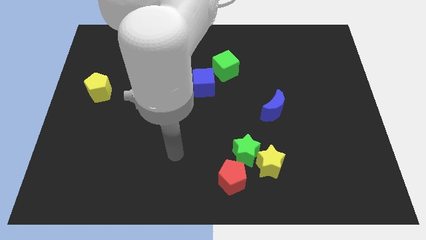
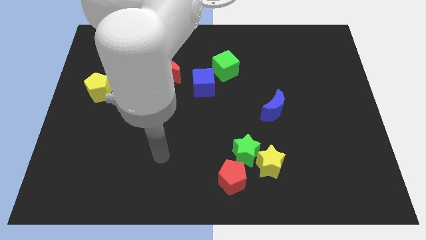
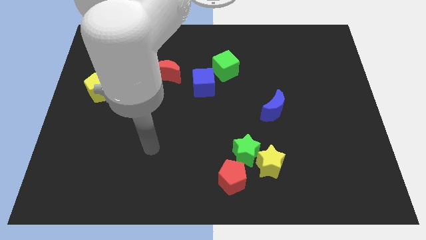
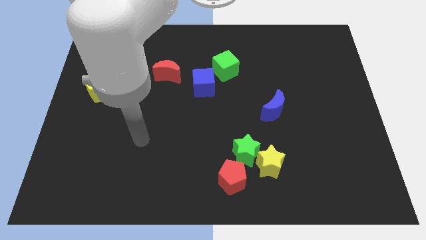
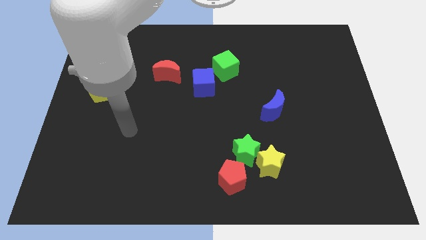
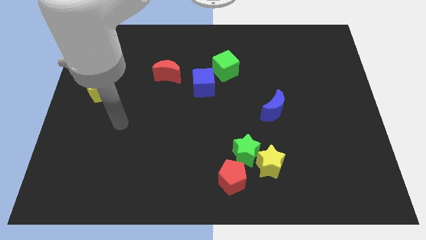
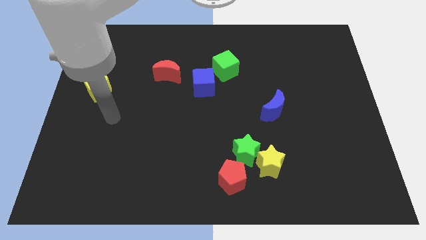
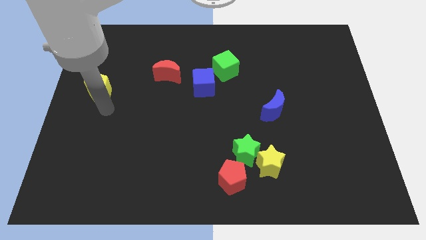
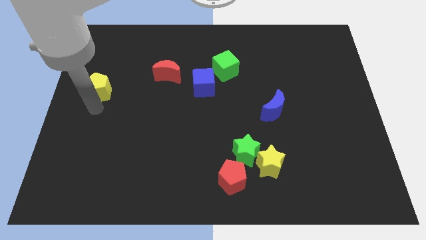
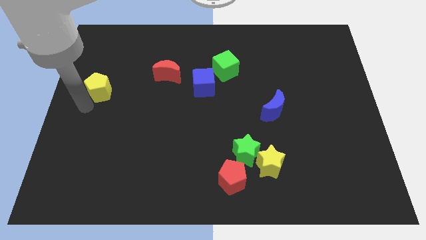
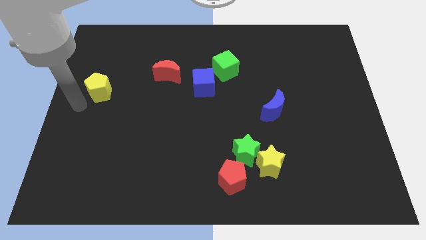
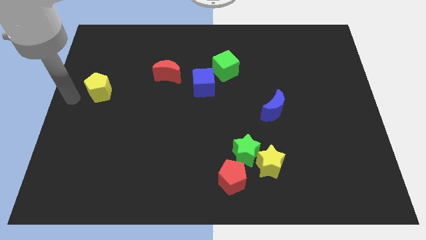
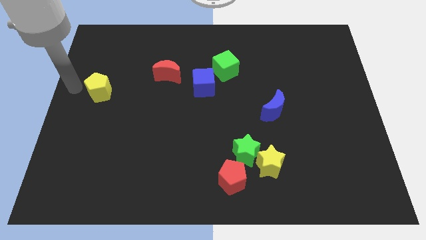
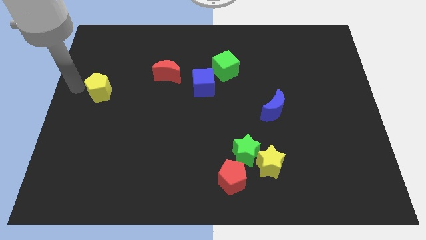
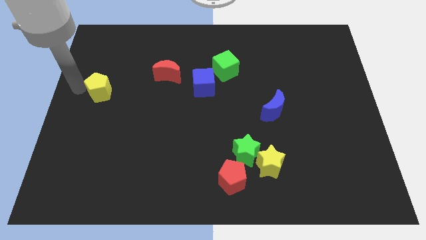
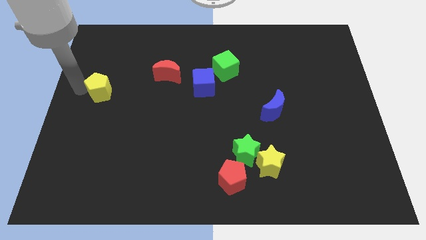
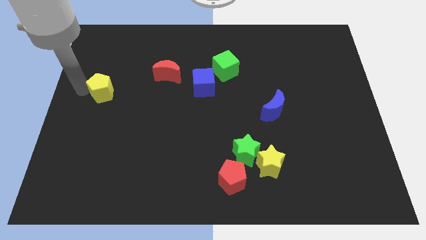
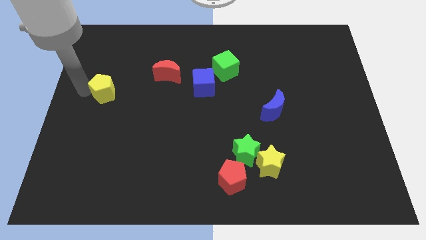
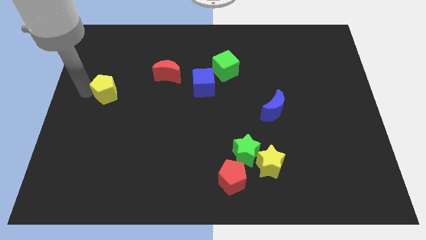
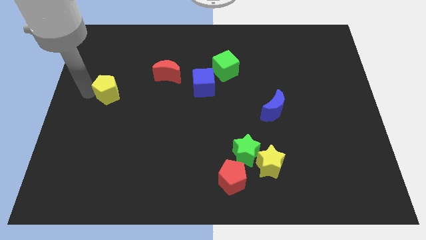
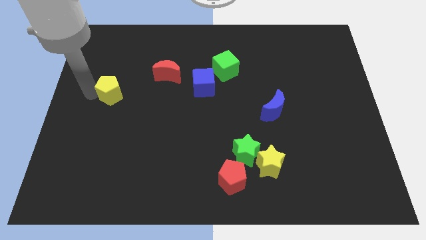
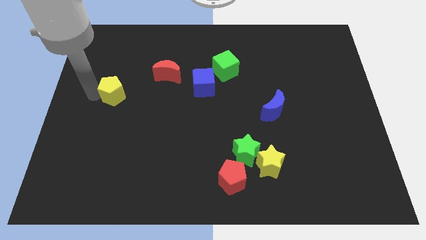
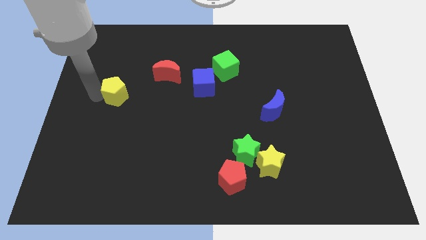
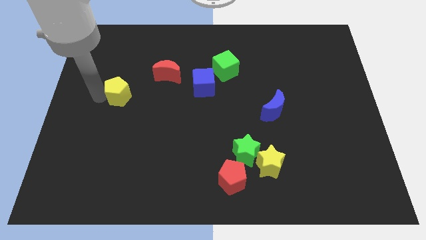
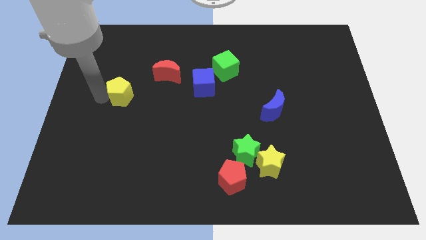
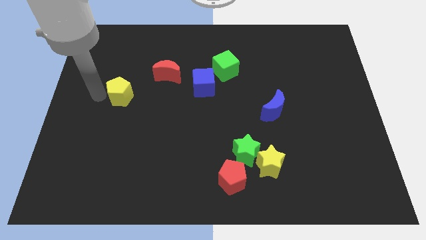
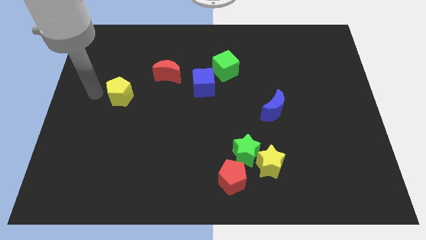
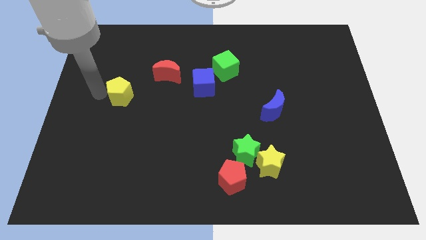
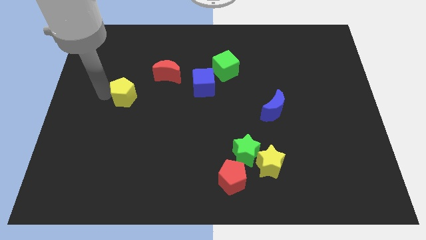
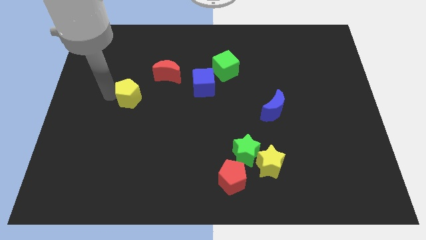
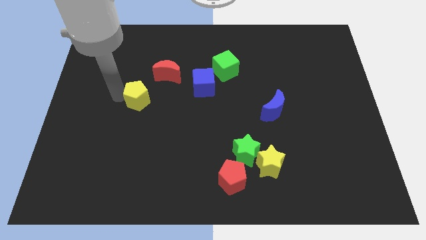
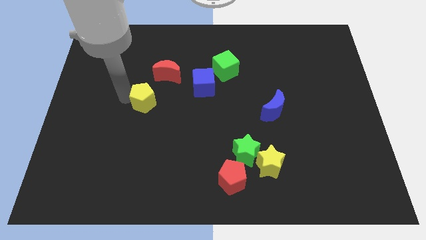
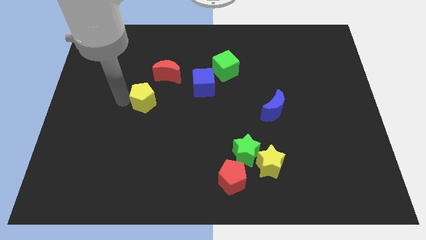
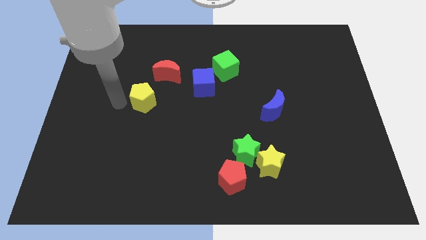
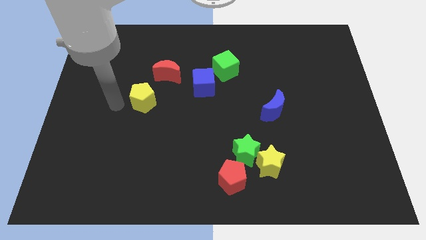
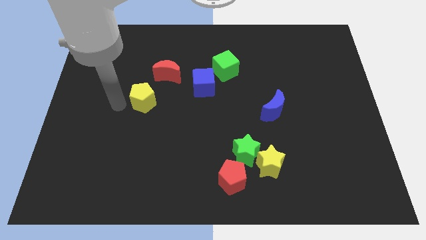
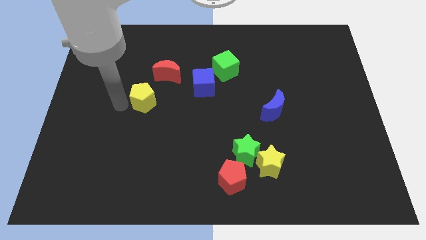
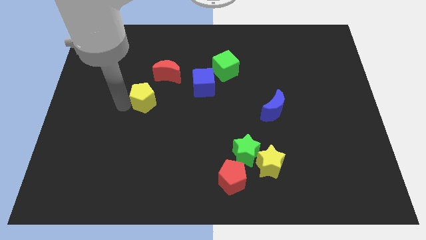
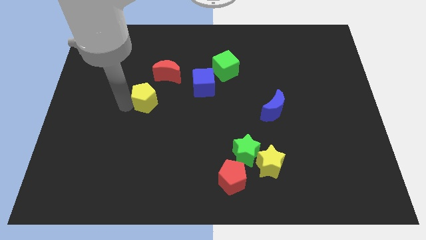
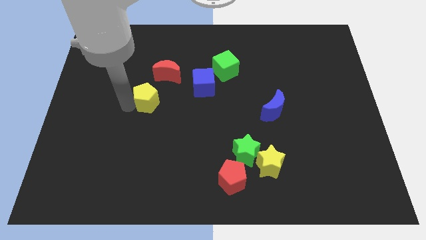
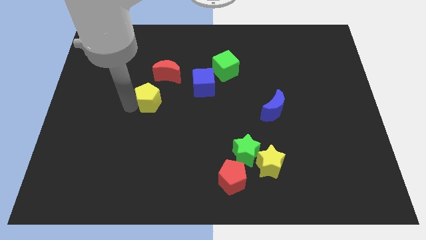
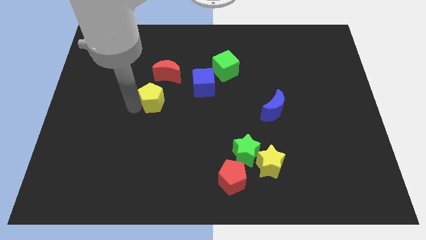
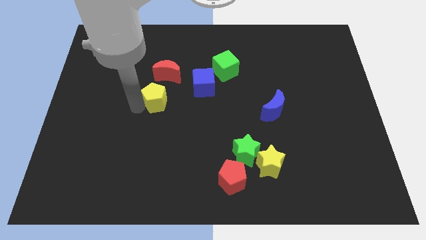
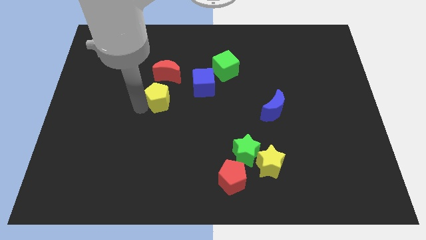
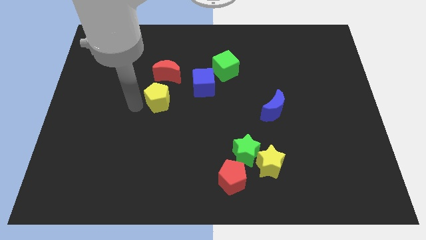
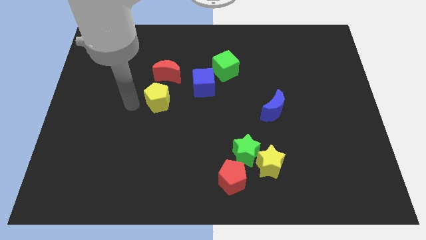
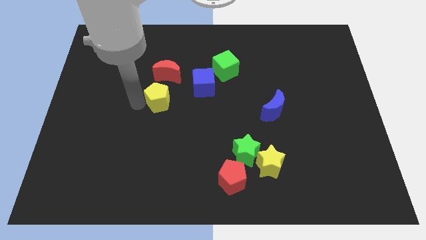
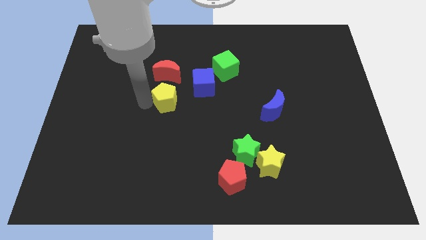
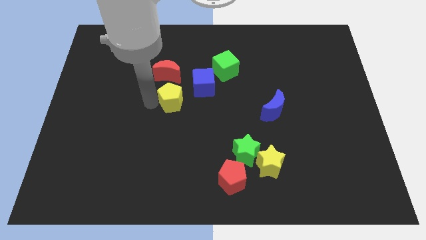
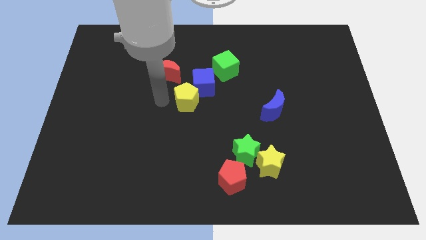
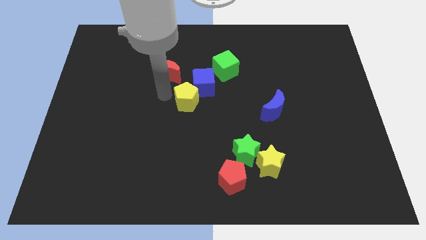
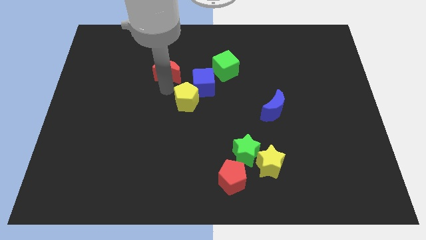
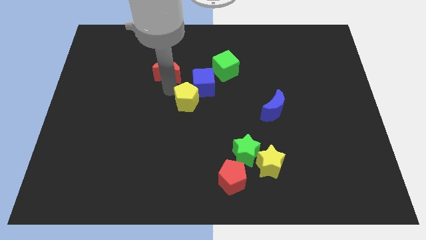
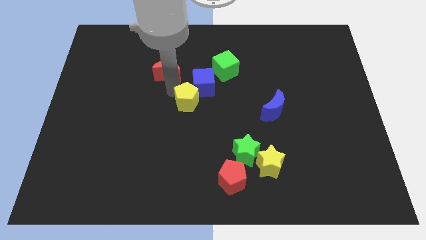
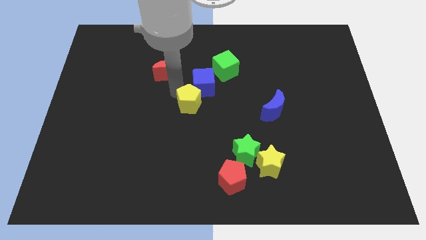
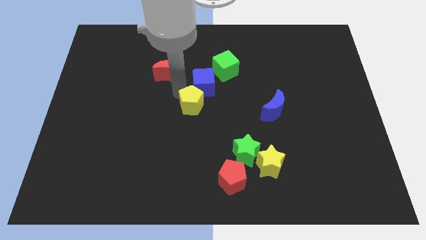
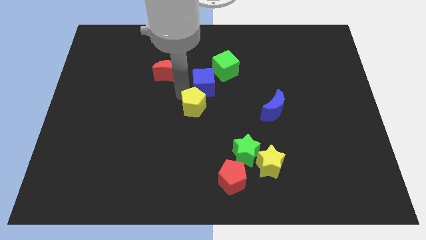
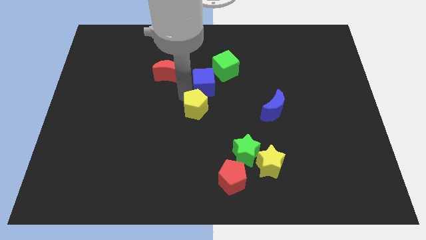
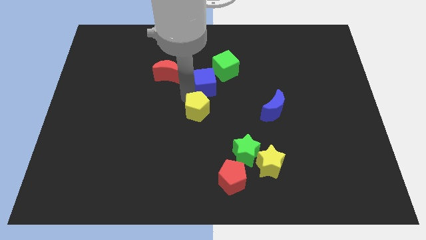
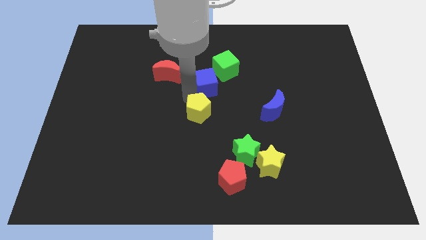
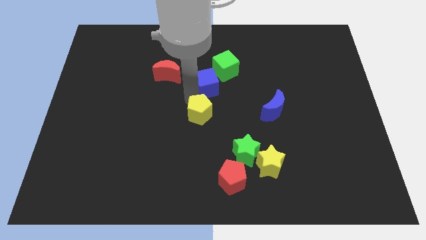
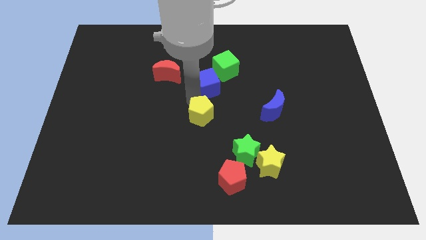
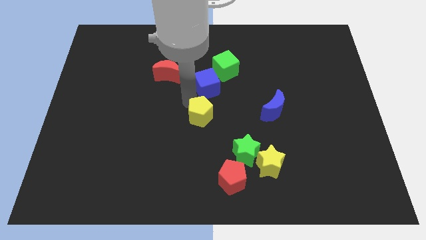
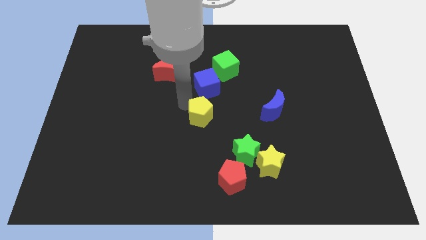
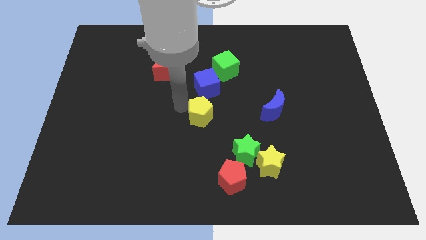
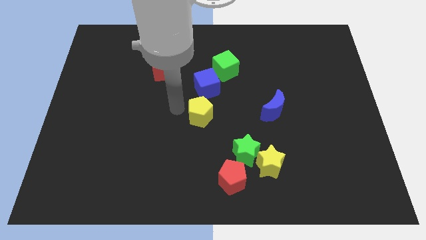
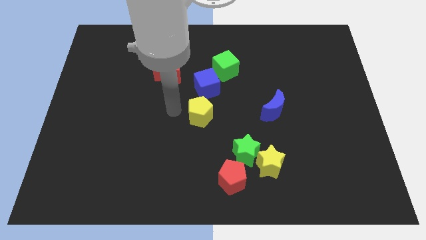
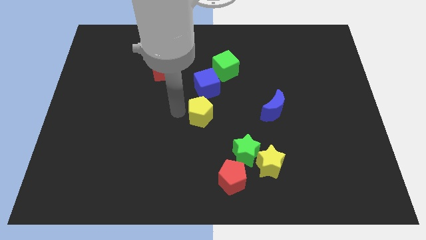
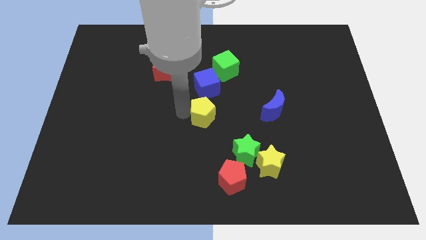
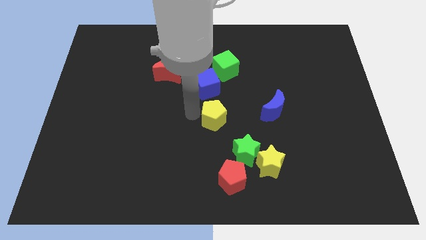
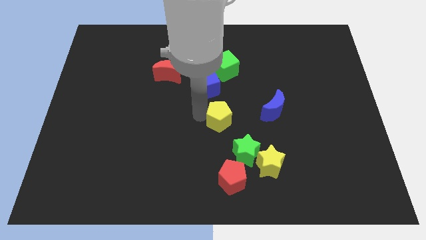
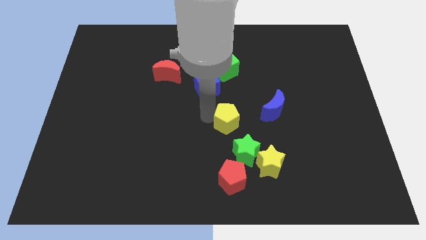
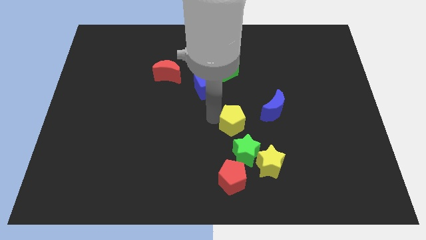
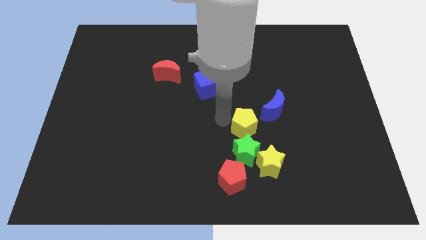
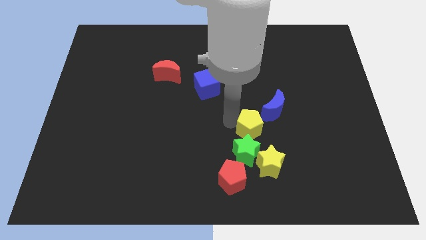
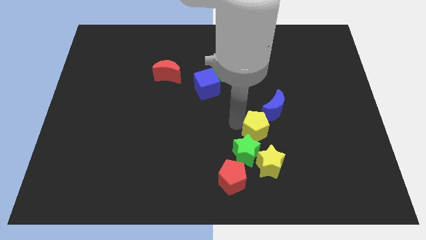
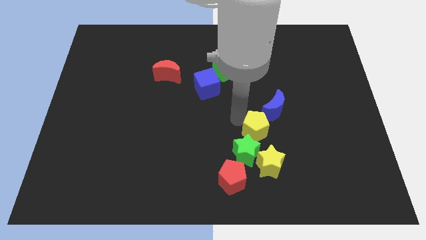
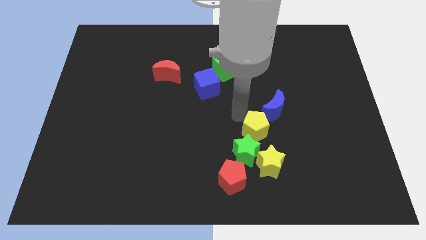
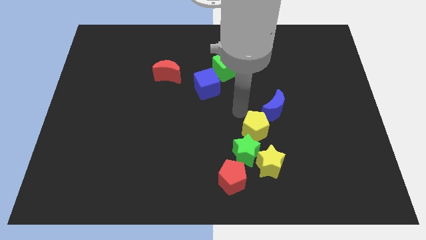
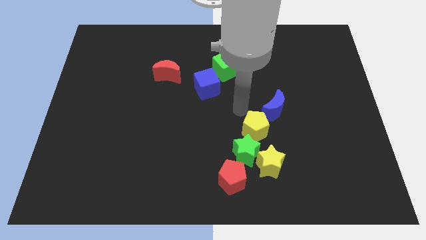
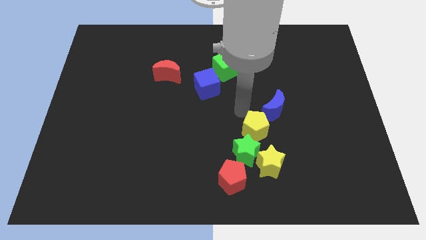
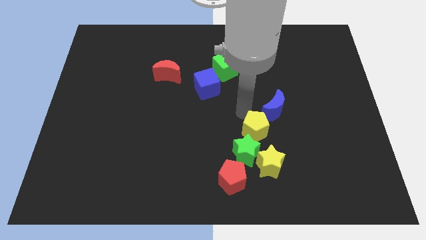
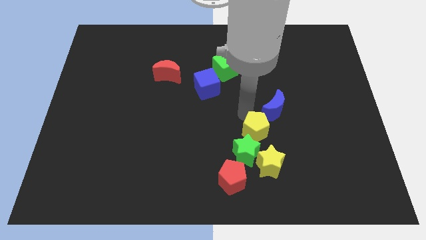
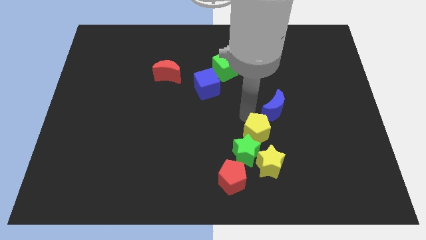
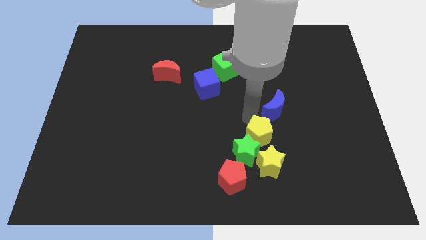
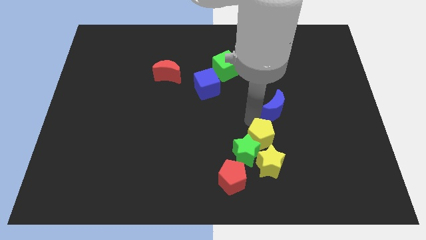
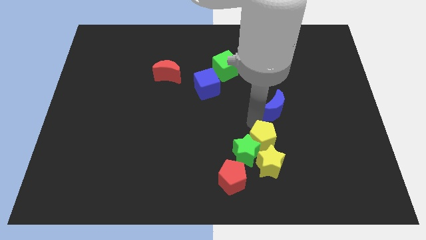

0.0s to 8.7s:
push the yellow pentagon to the yellow star
